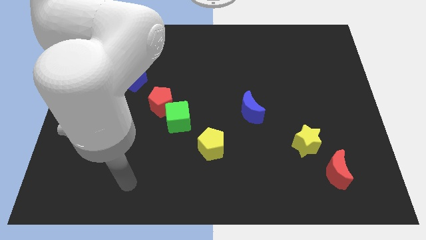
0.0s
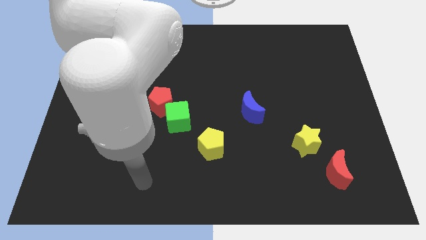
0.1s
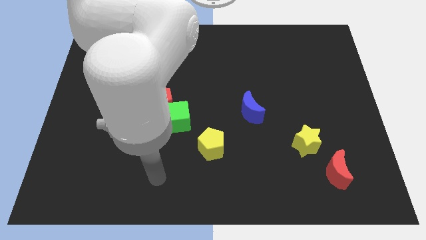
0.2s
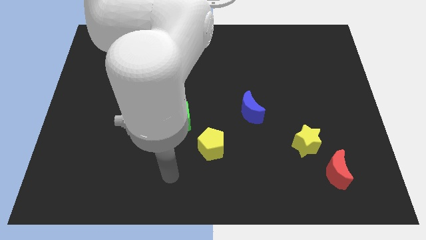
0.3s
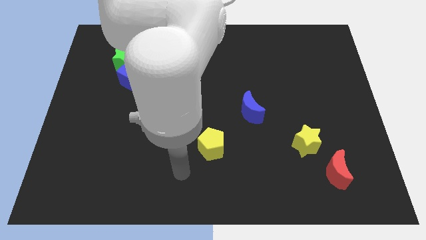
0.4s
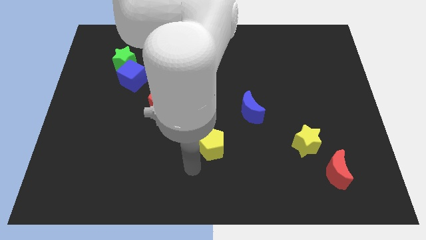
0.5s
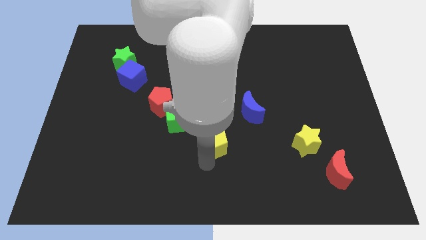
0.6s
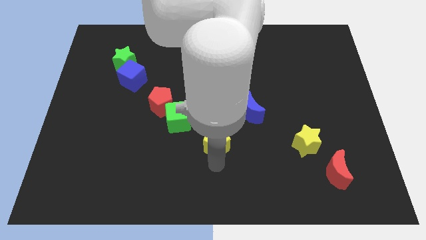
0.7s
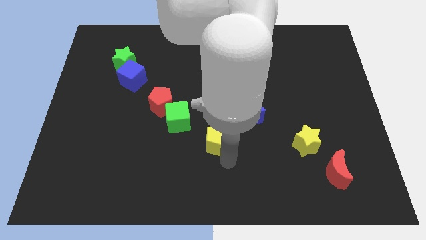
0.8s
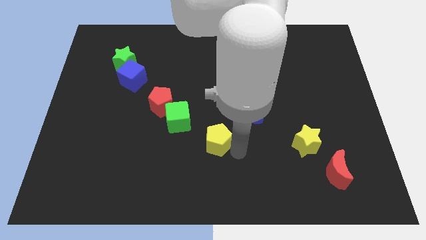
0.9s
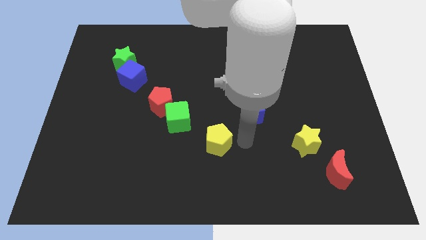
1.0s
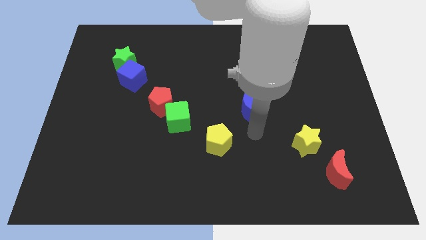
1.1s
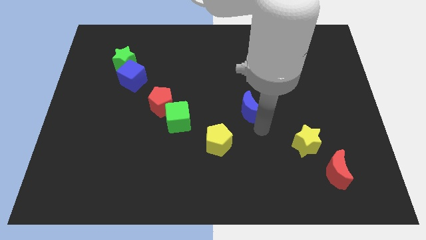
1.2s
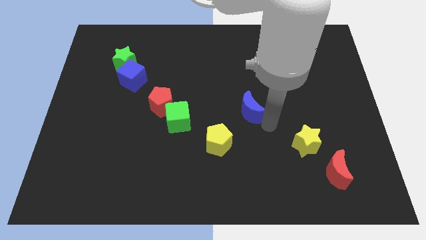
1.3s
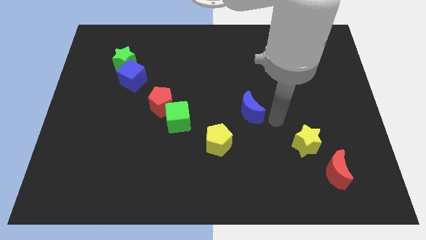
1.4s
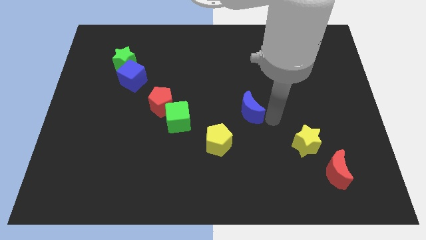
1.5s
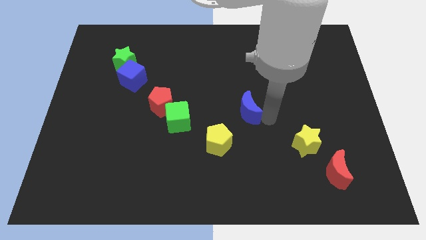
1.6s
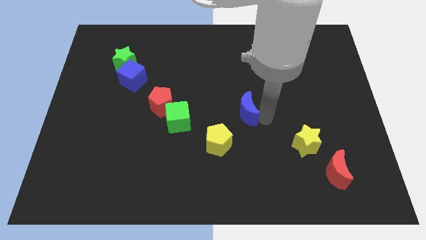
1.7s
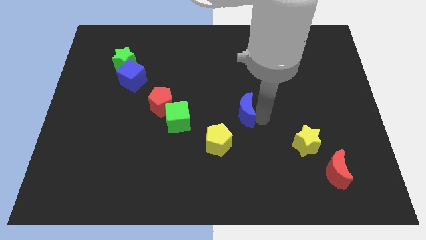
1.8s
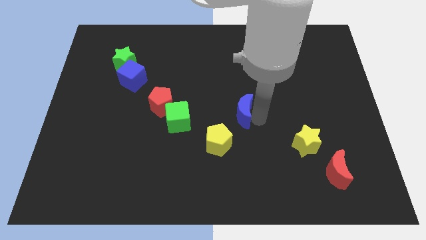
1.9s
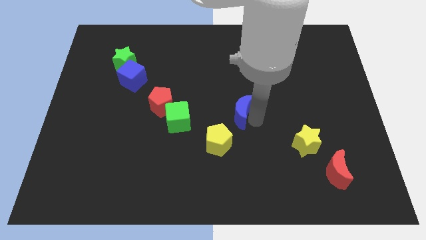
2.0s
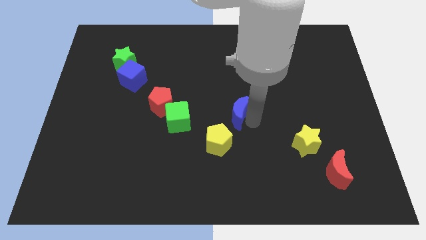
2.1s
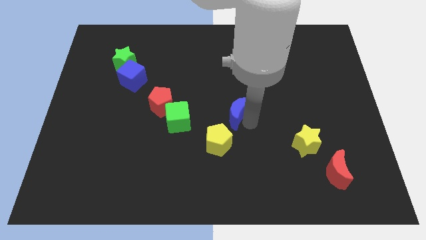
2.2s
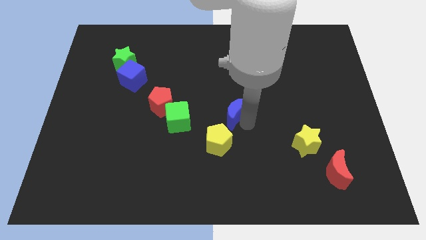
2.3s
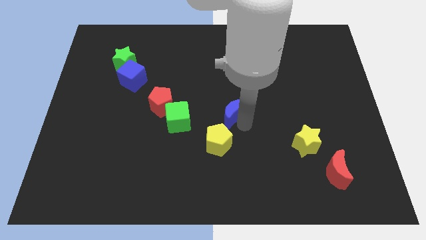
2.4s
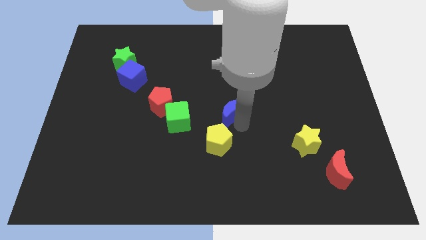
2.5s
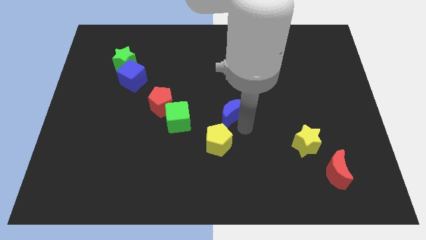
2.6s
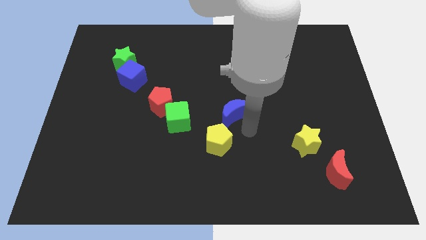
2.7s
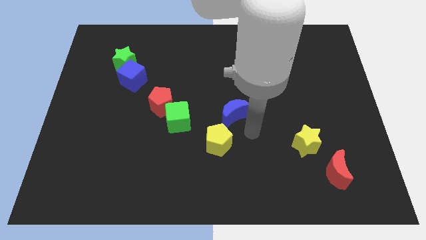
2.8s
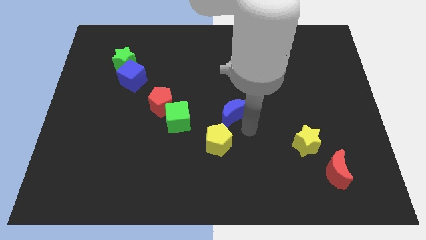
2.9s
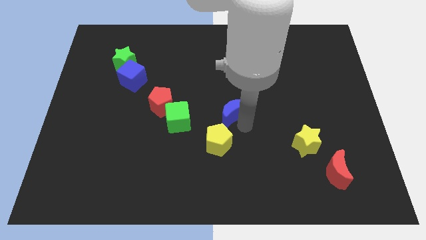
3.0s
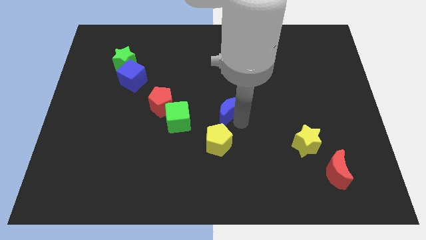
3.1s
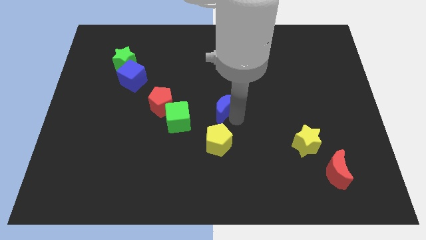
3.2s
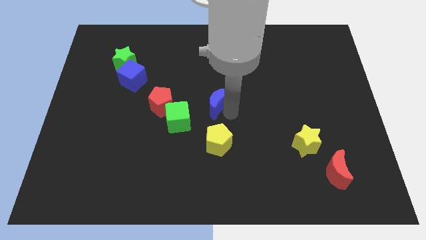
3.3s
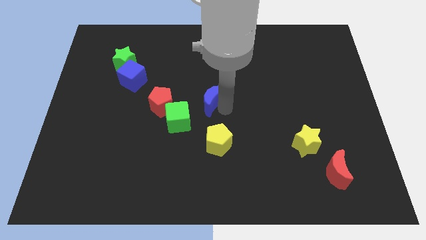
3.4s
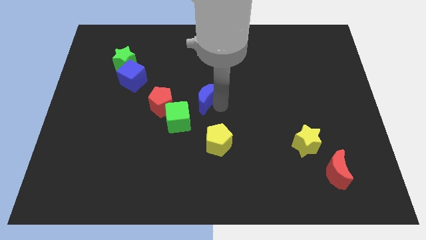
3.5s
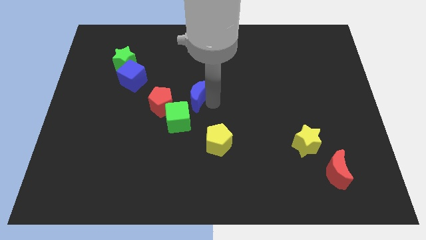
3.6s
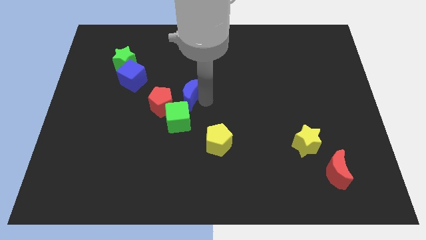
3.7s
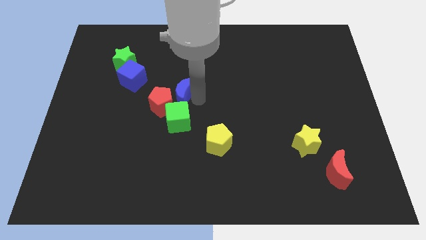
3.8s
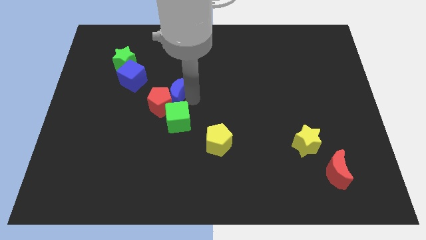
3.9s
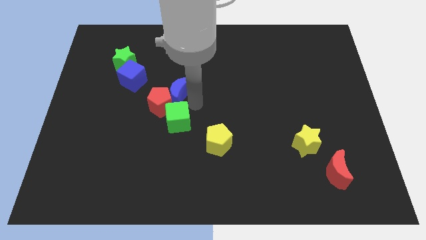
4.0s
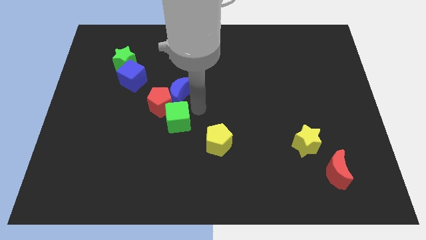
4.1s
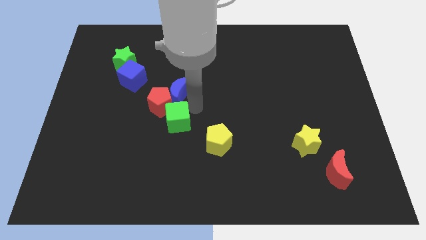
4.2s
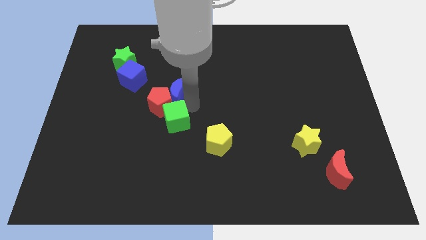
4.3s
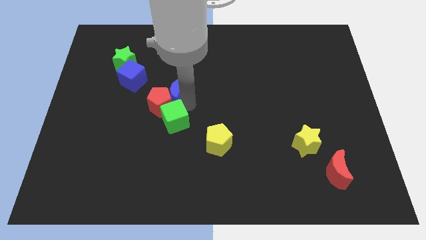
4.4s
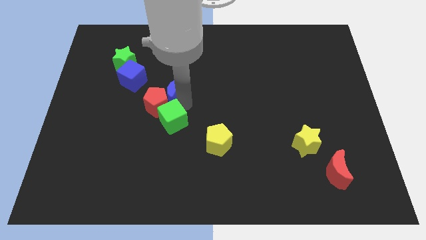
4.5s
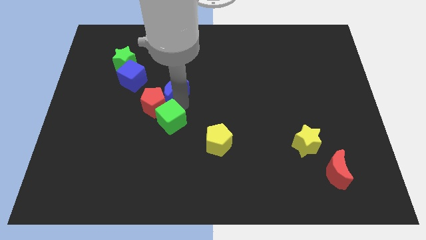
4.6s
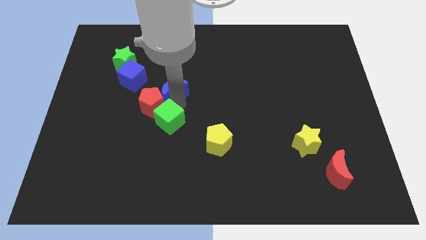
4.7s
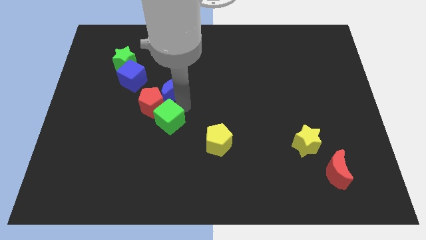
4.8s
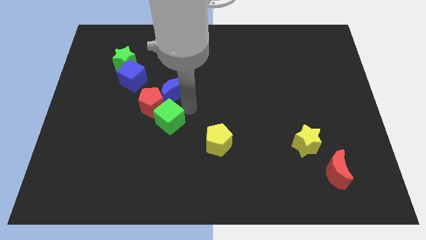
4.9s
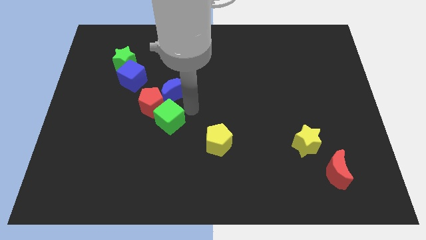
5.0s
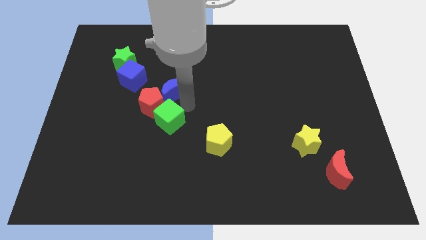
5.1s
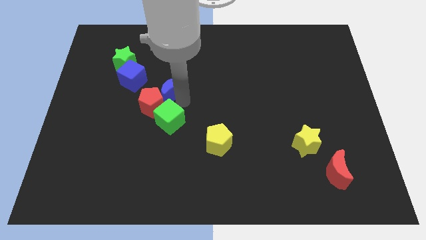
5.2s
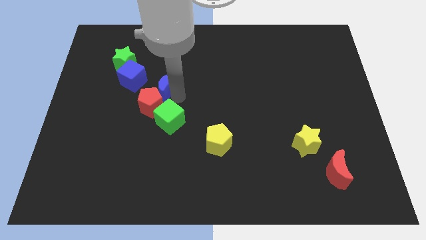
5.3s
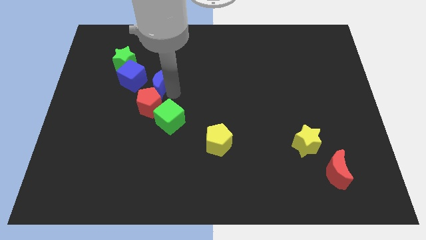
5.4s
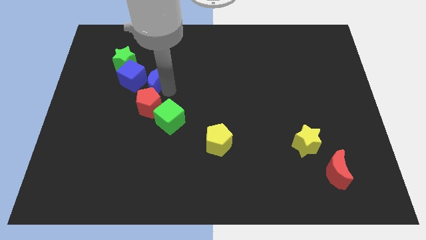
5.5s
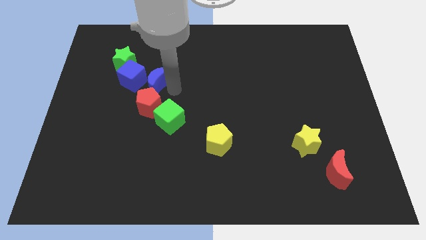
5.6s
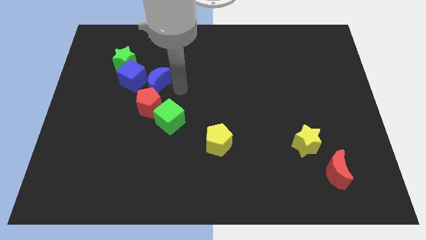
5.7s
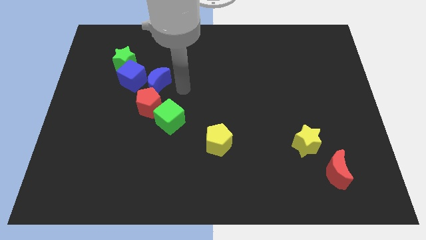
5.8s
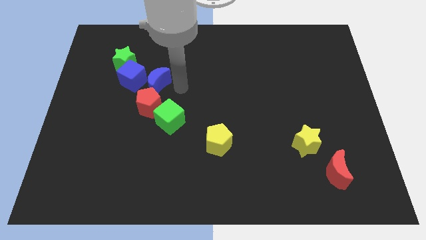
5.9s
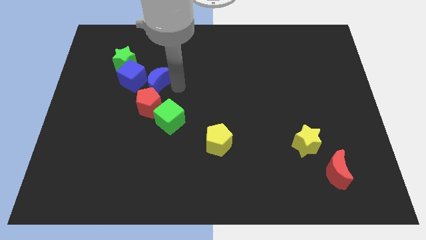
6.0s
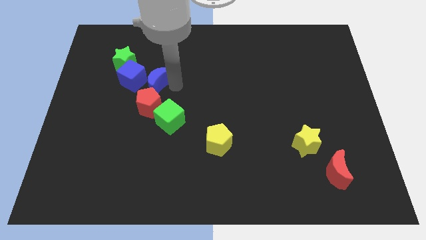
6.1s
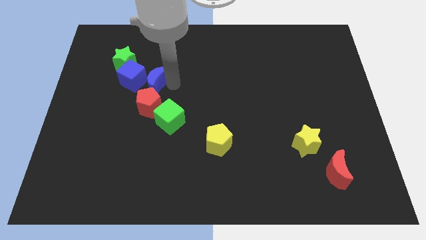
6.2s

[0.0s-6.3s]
slide the blue moon towards the blue cube

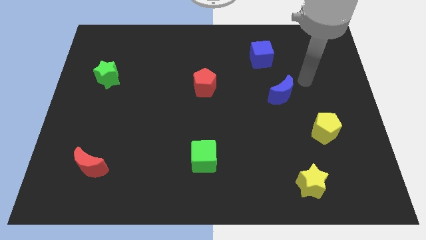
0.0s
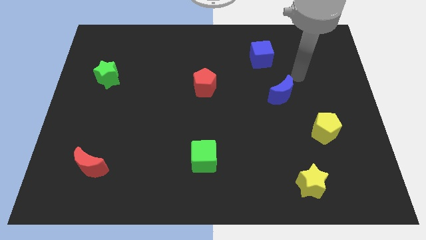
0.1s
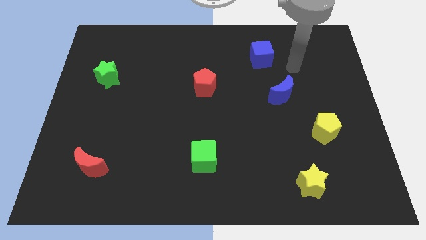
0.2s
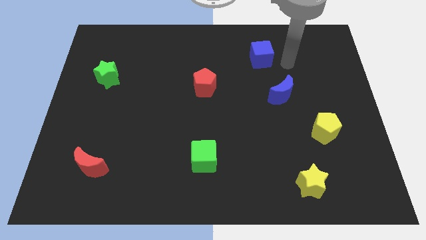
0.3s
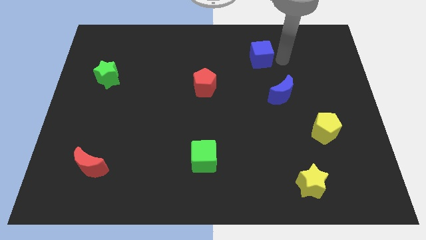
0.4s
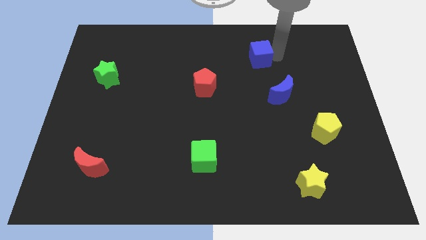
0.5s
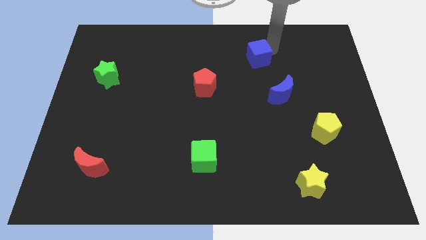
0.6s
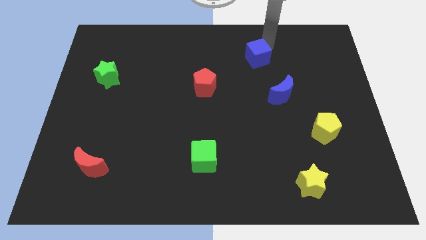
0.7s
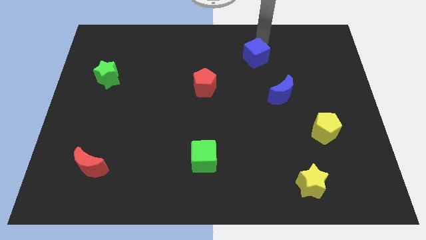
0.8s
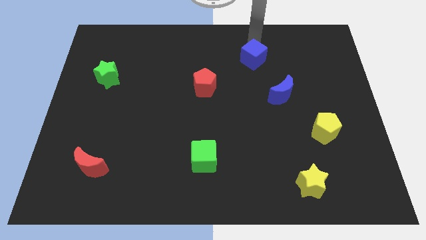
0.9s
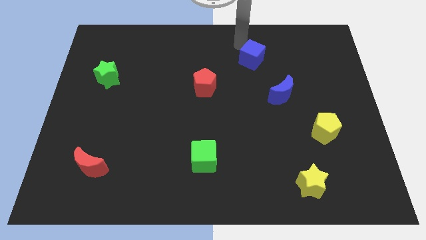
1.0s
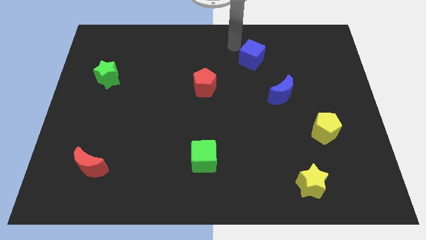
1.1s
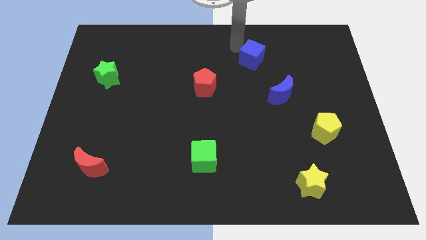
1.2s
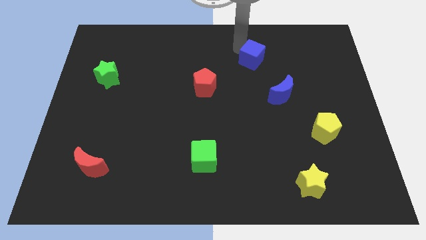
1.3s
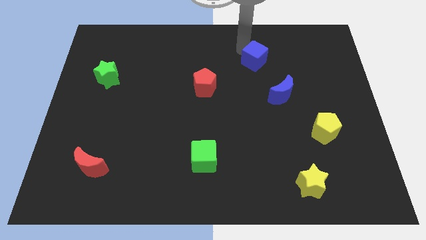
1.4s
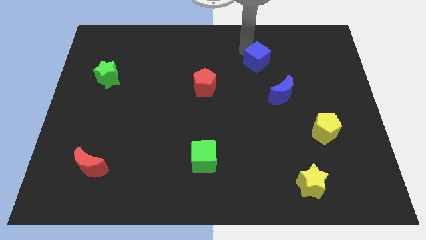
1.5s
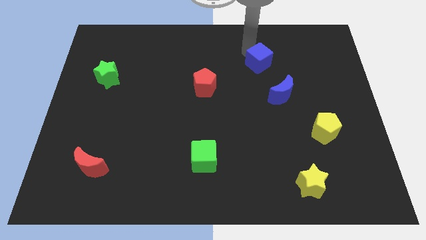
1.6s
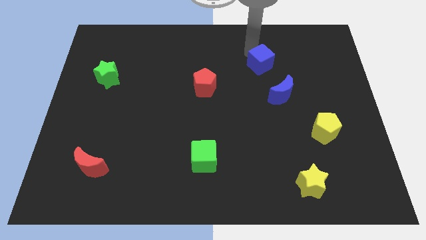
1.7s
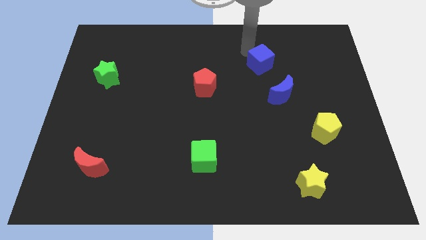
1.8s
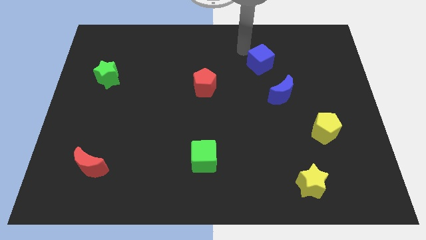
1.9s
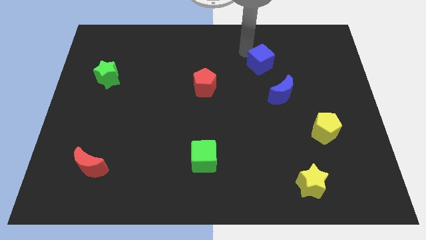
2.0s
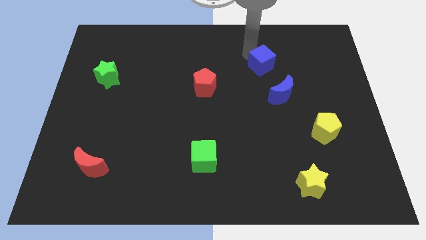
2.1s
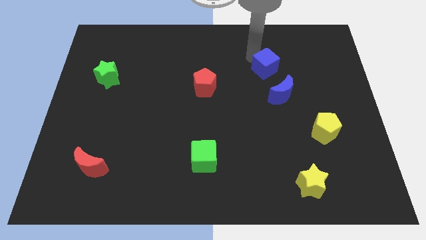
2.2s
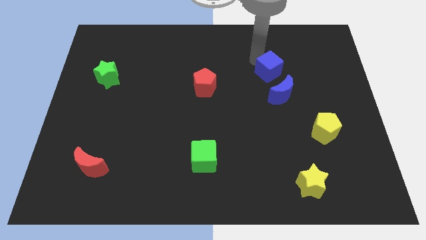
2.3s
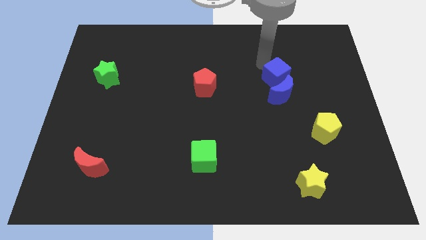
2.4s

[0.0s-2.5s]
put the blue cube close to the blue moon
